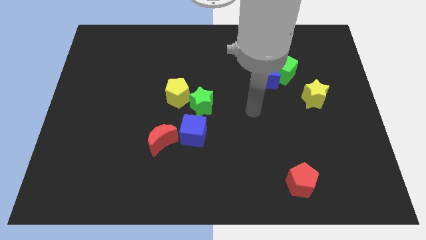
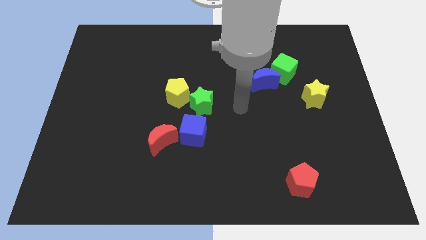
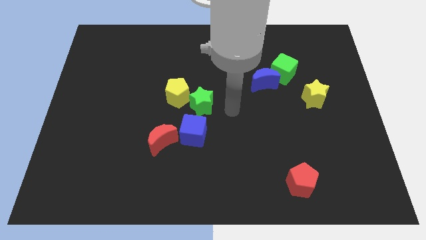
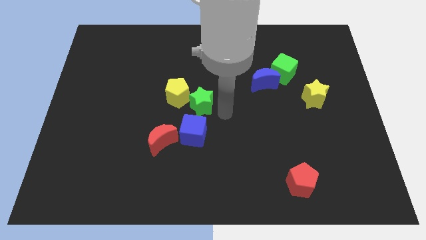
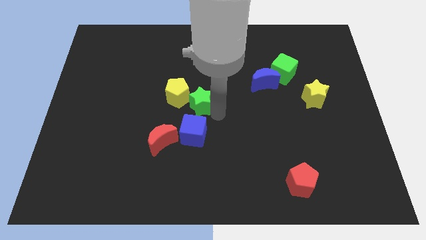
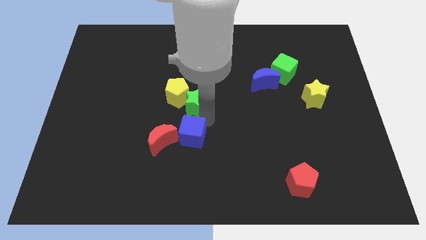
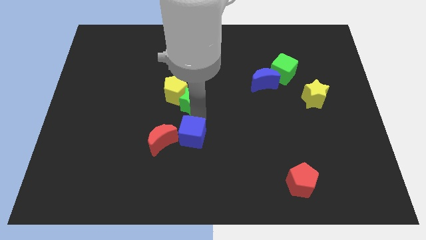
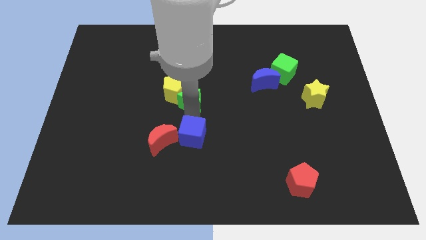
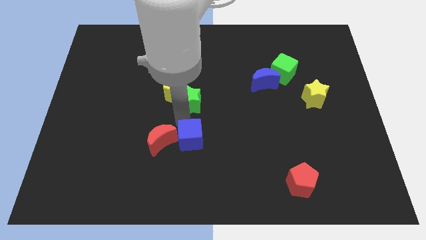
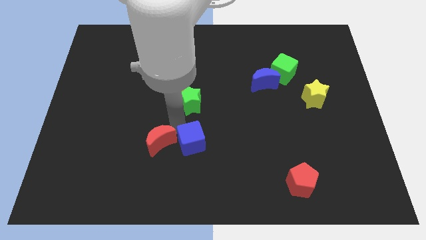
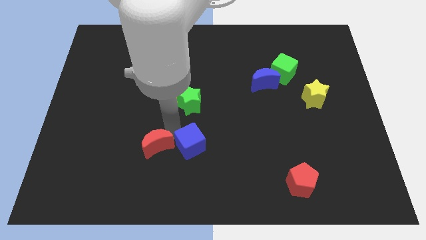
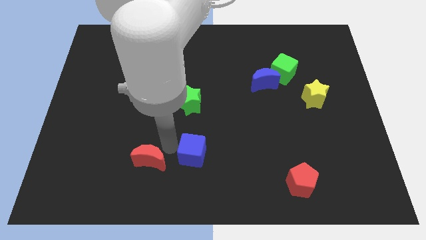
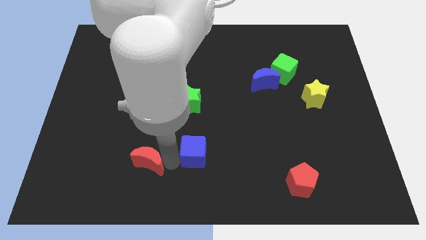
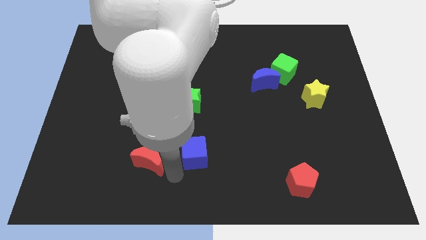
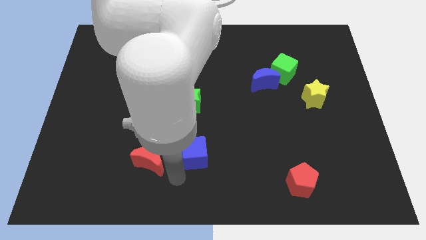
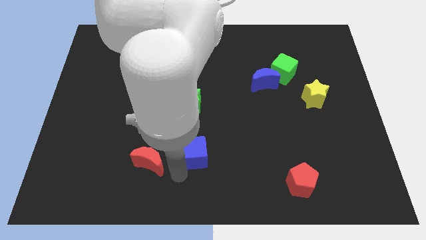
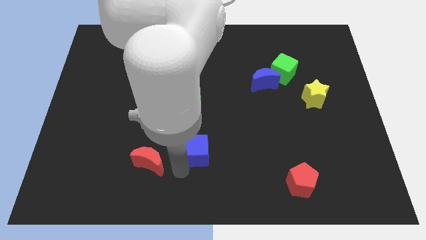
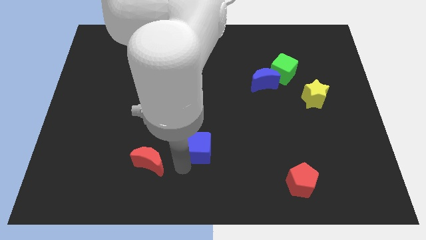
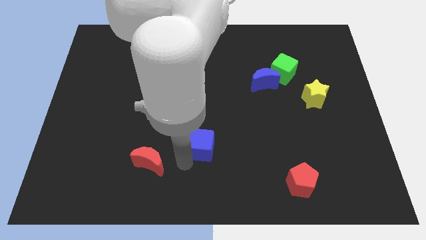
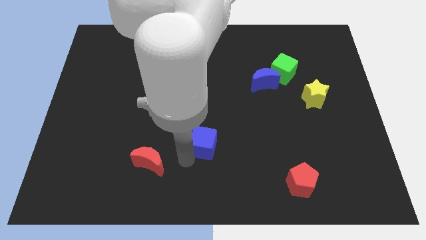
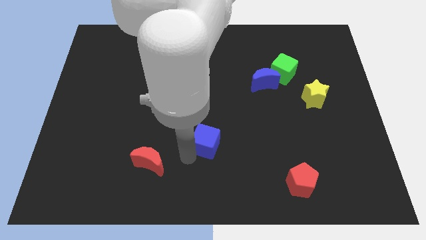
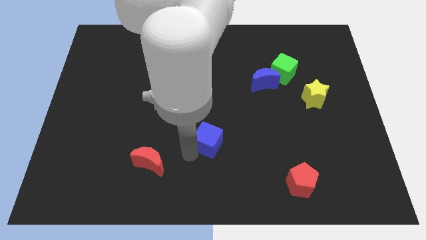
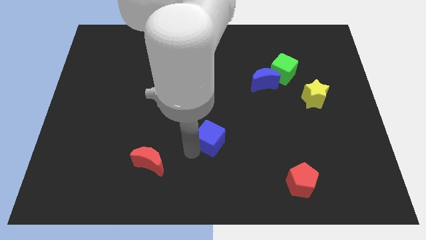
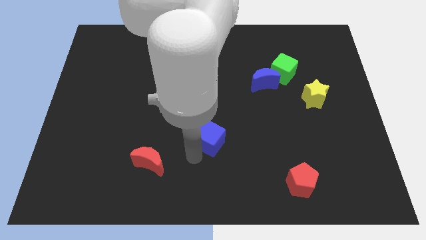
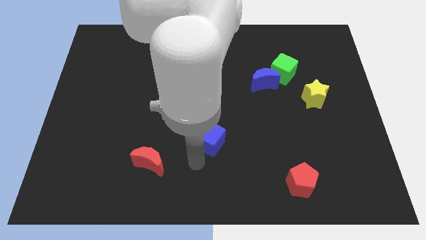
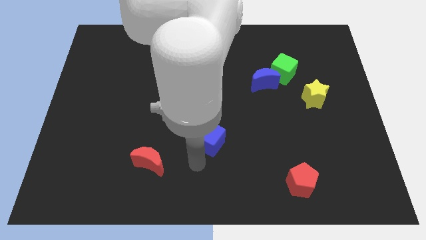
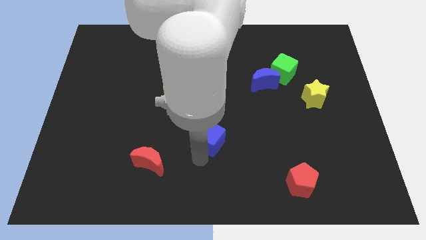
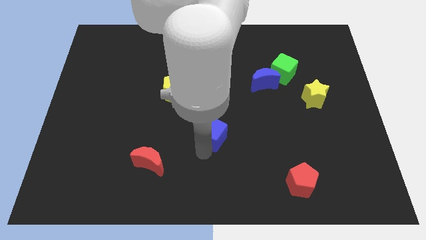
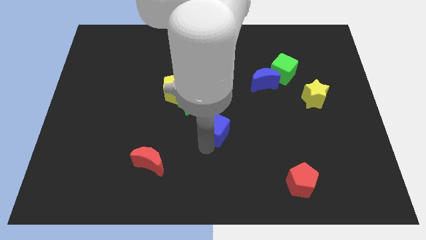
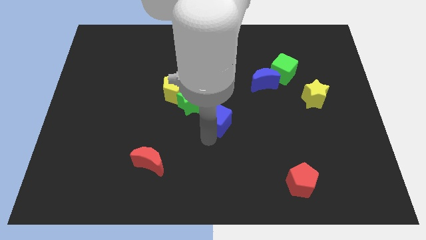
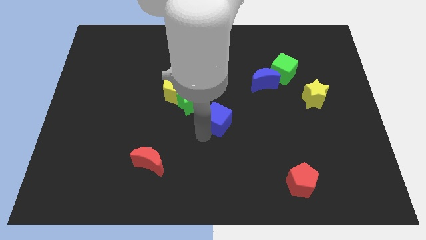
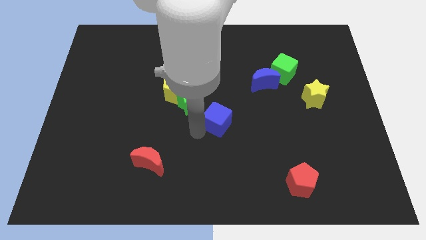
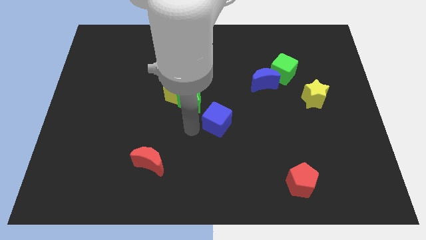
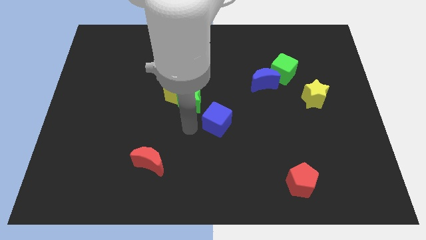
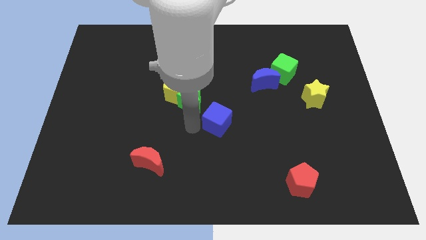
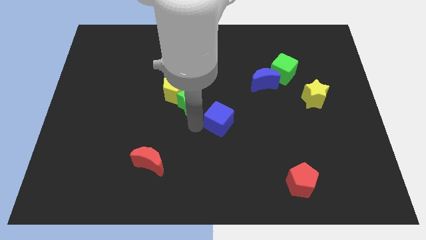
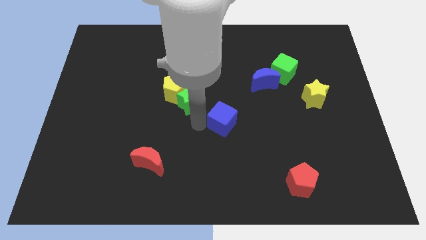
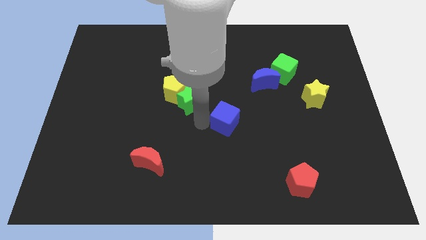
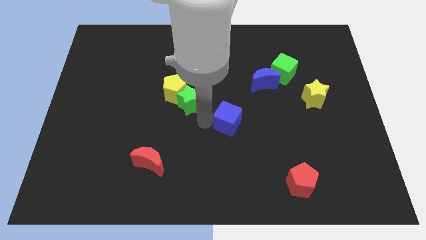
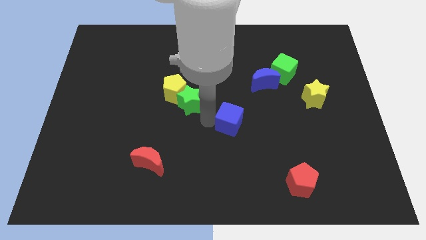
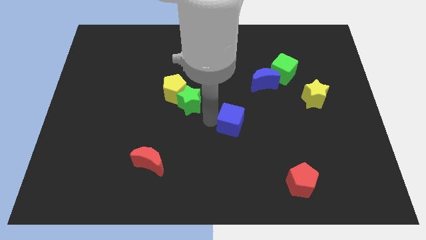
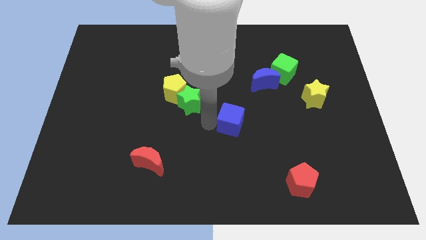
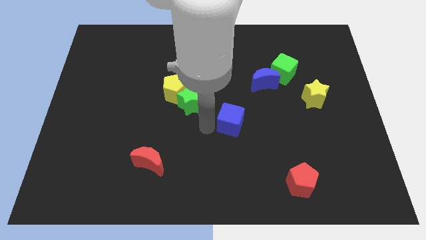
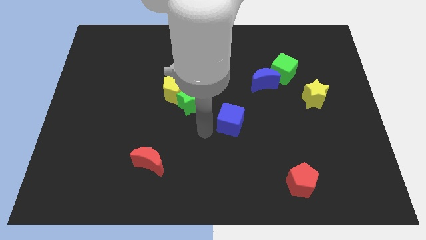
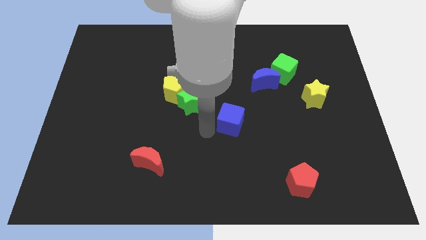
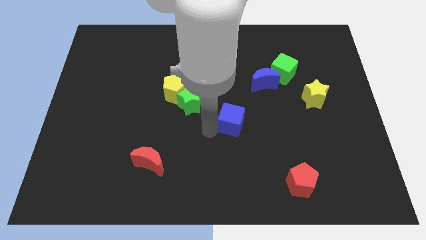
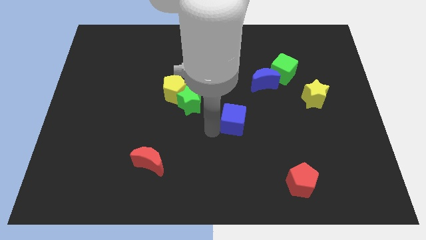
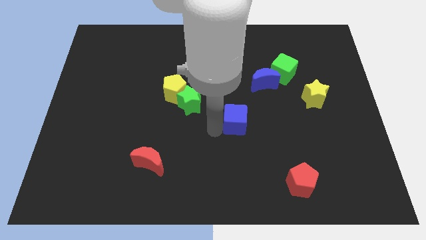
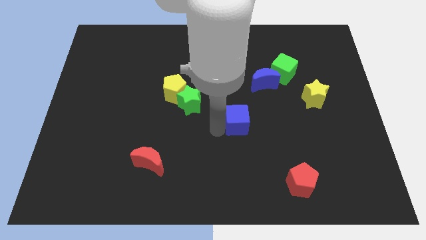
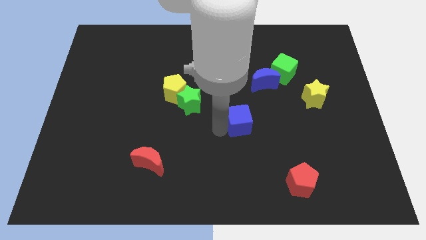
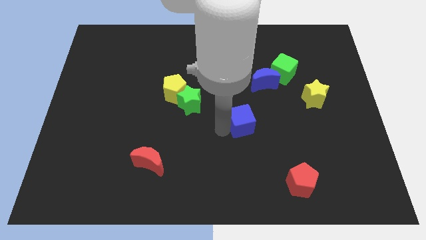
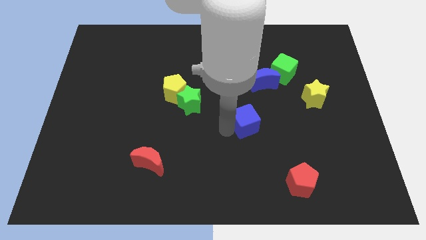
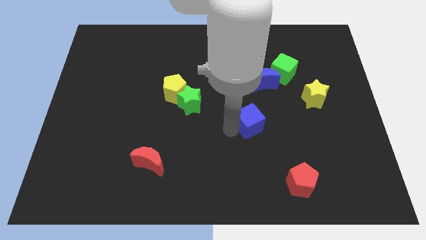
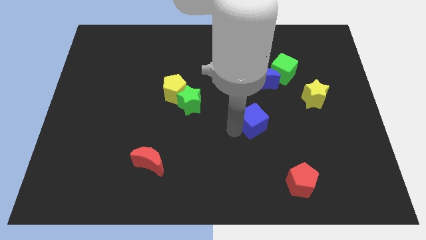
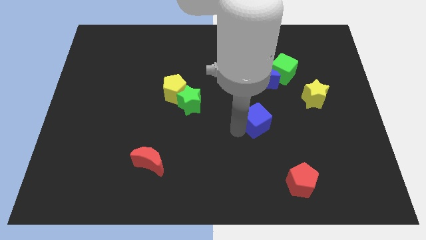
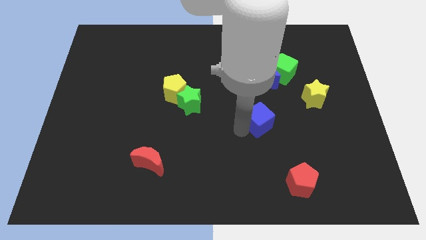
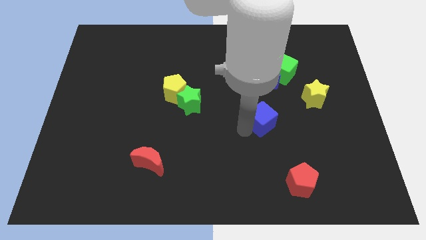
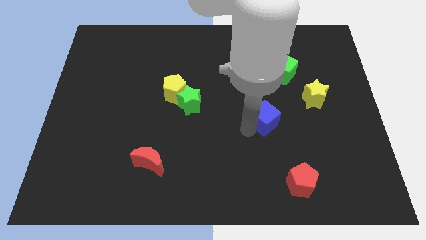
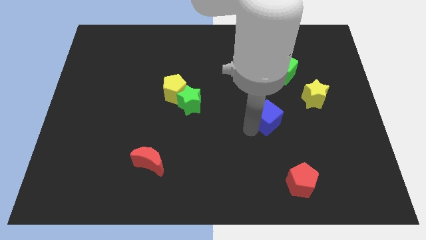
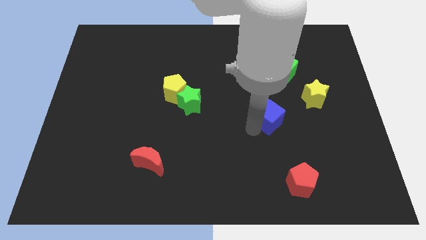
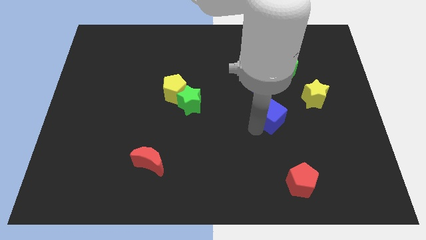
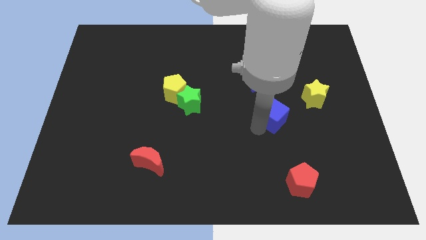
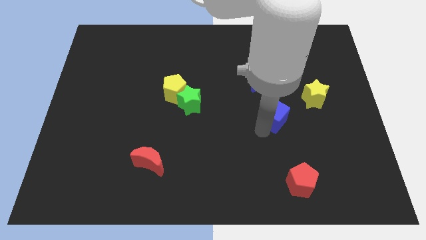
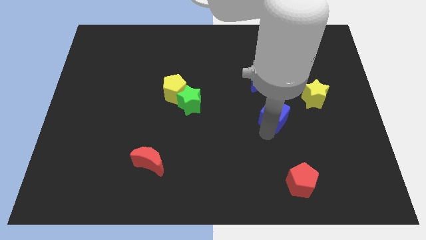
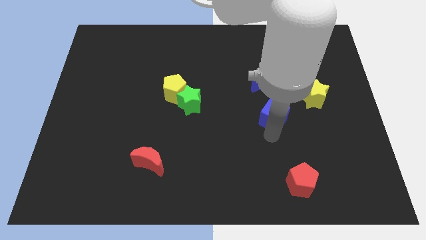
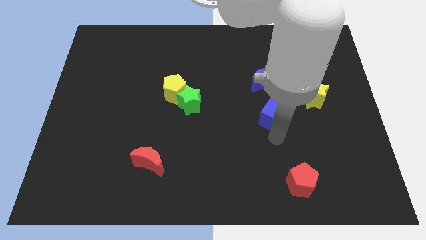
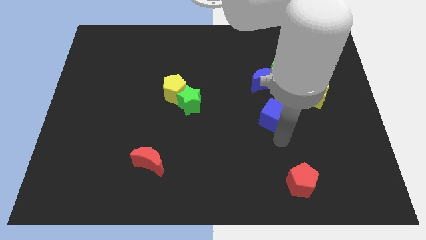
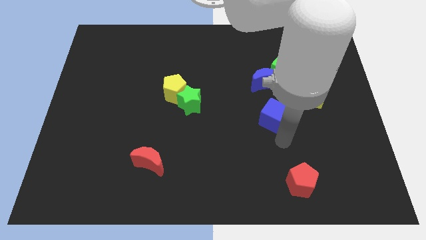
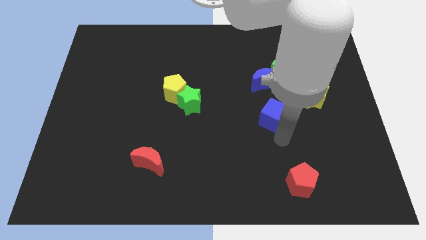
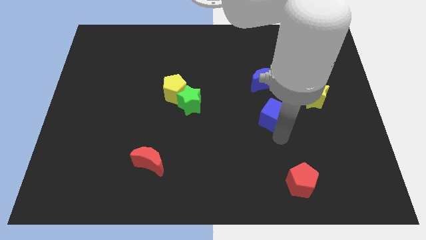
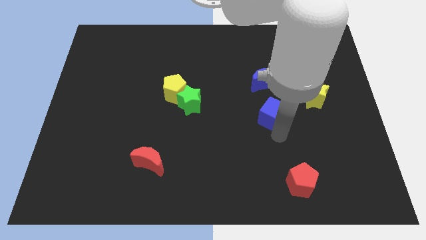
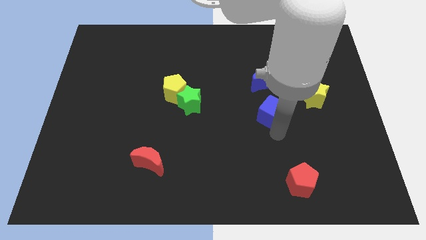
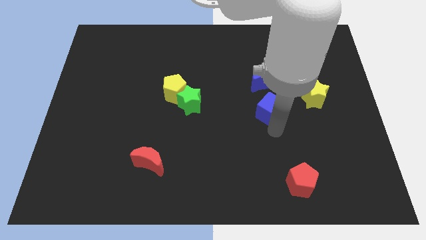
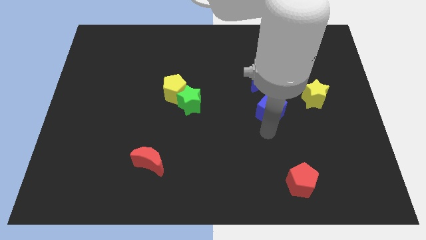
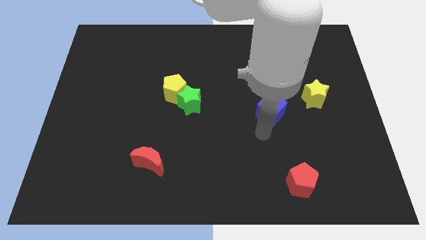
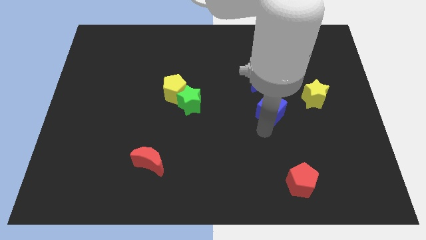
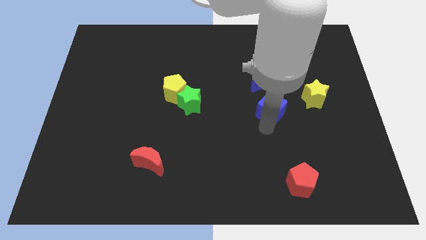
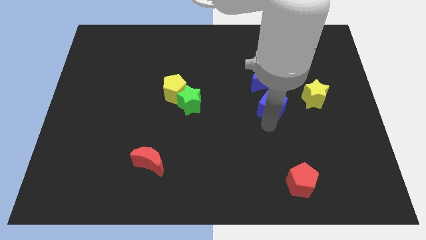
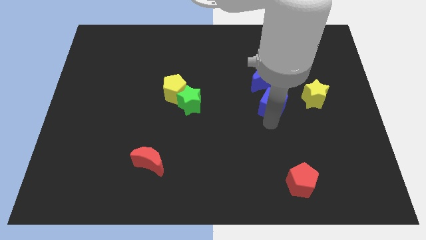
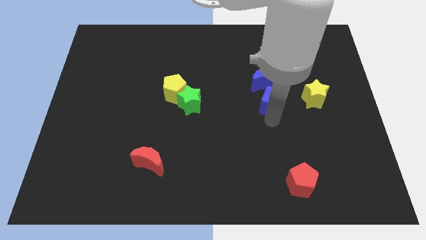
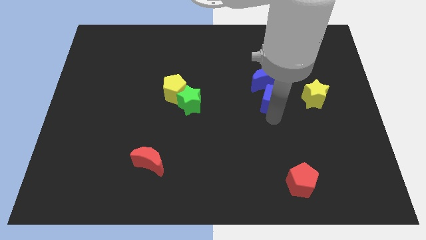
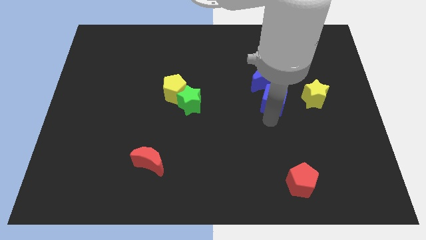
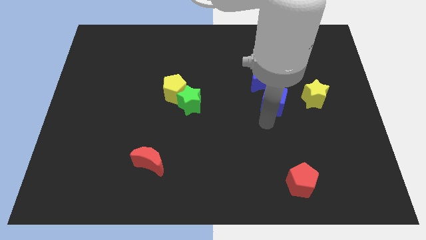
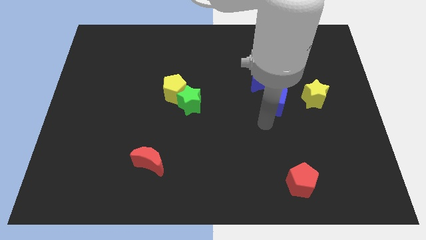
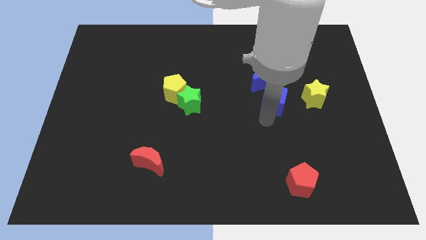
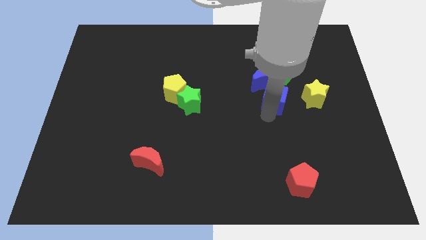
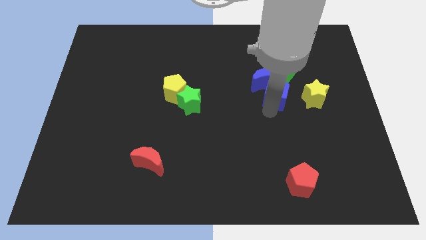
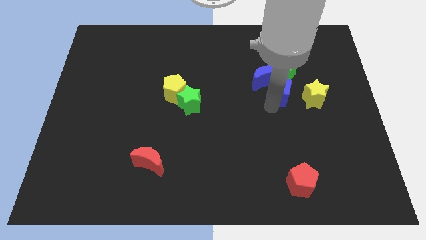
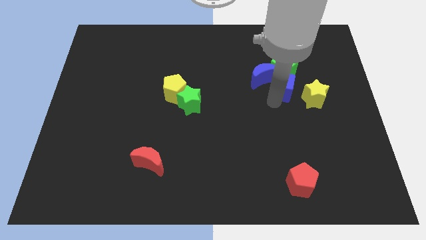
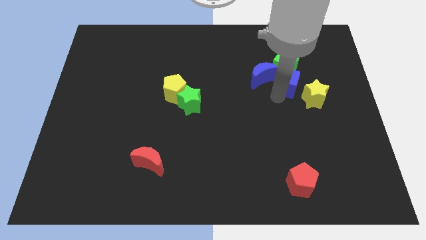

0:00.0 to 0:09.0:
move the blue cube towards the green cube
